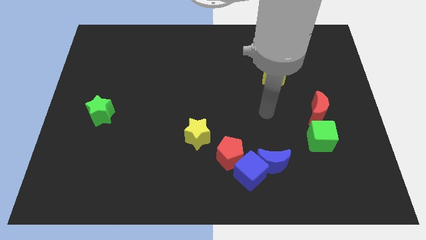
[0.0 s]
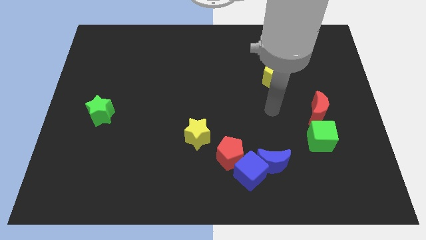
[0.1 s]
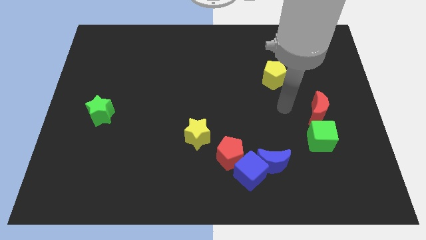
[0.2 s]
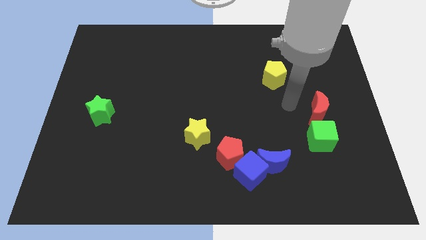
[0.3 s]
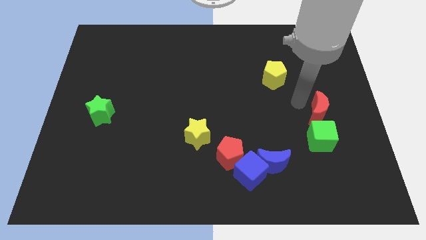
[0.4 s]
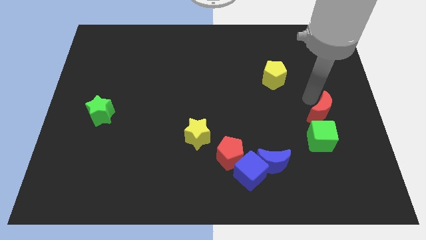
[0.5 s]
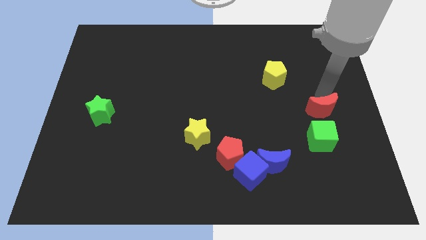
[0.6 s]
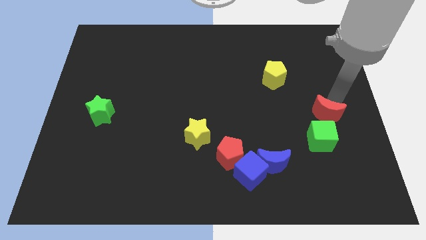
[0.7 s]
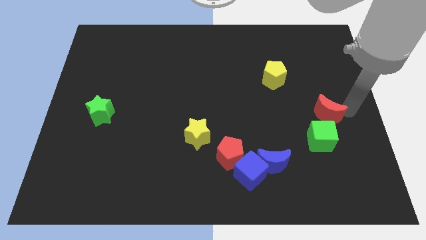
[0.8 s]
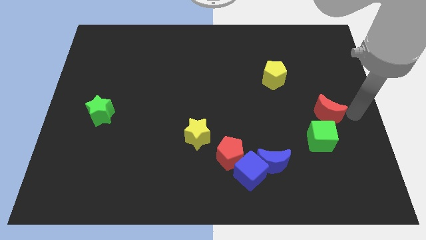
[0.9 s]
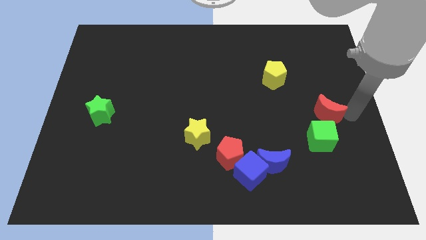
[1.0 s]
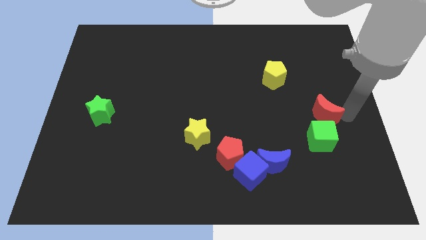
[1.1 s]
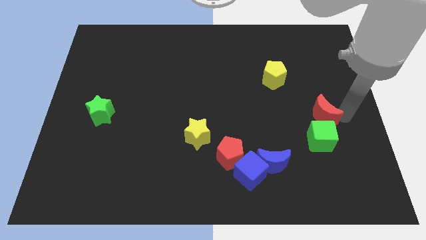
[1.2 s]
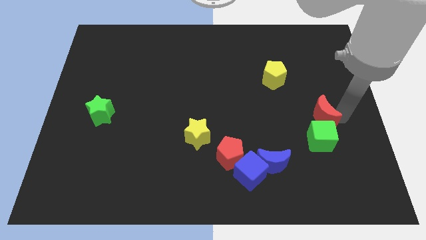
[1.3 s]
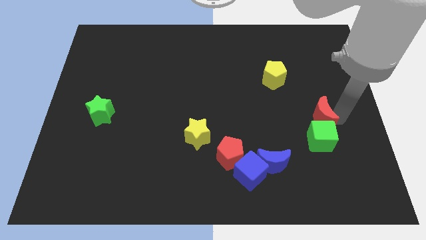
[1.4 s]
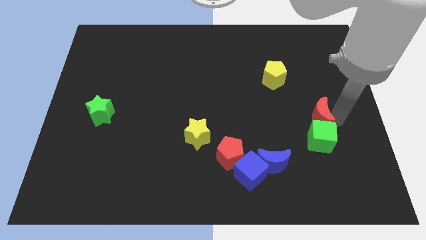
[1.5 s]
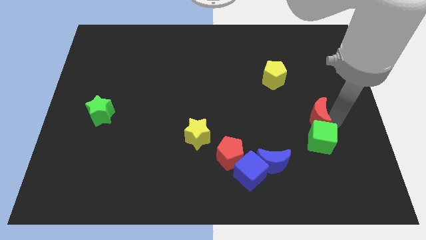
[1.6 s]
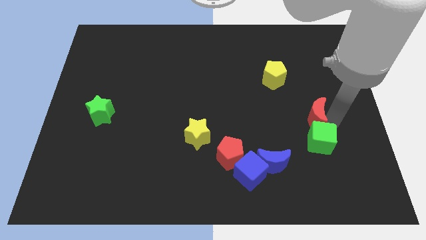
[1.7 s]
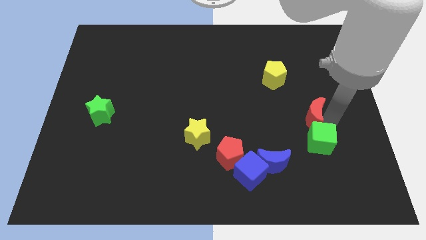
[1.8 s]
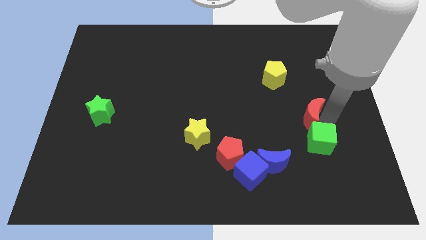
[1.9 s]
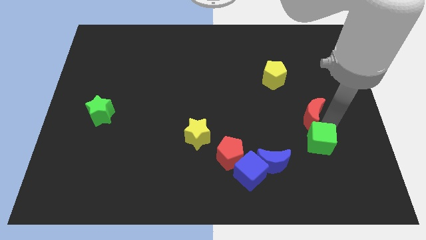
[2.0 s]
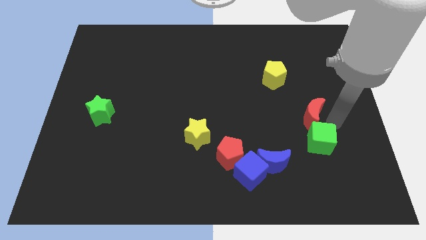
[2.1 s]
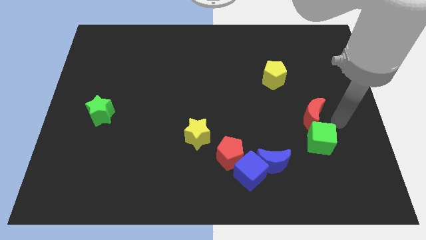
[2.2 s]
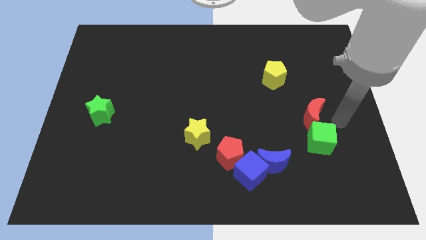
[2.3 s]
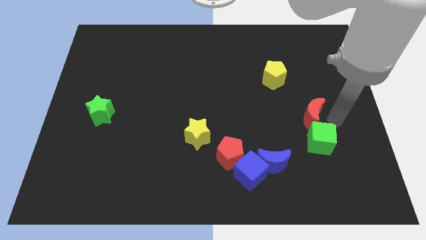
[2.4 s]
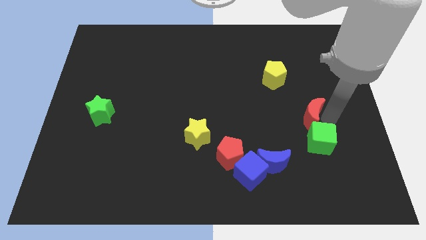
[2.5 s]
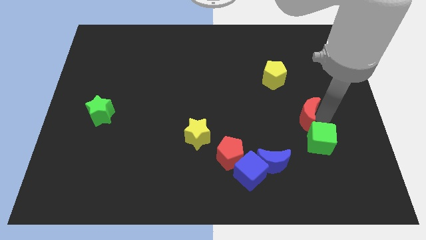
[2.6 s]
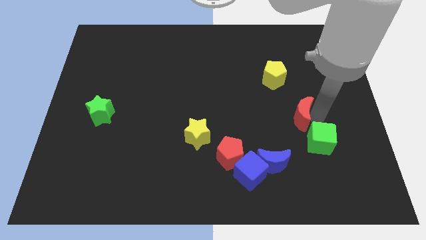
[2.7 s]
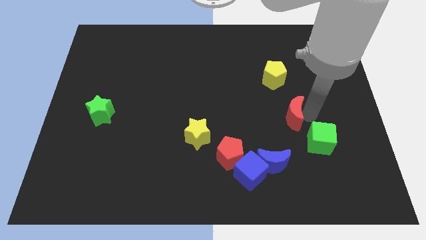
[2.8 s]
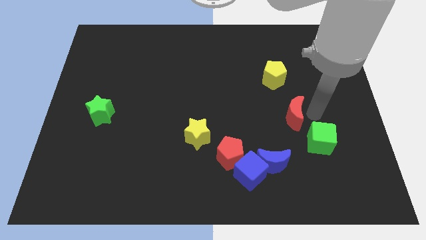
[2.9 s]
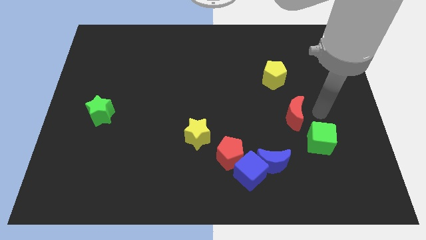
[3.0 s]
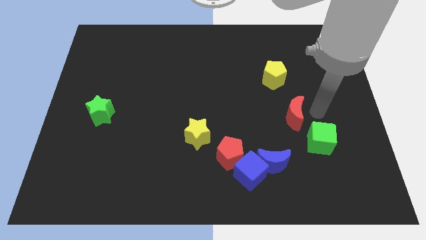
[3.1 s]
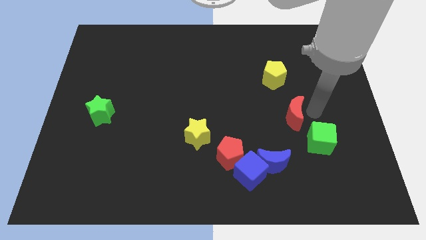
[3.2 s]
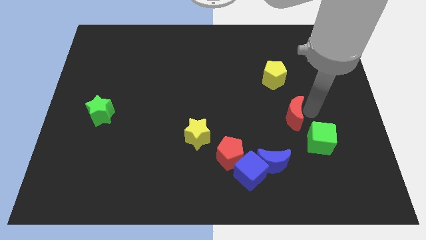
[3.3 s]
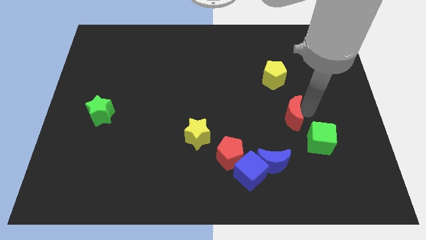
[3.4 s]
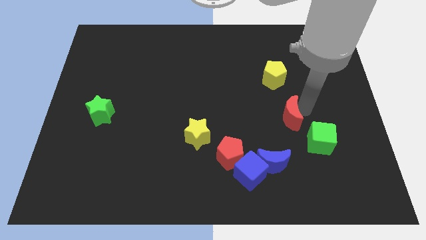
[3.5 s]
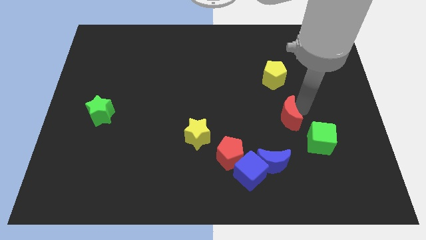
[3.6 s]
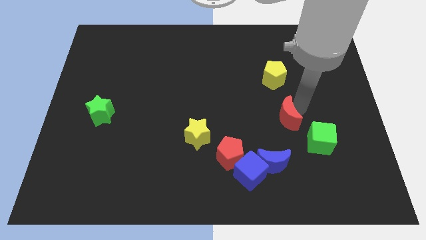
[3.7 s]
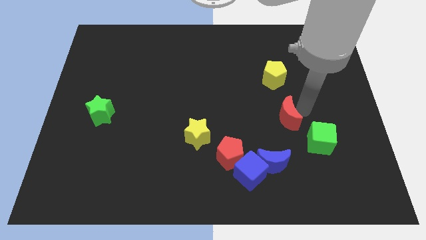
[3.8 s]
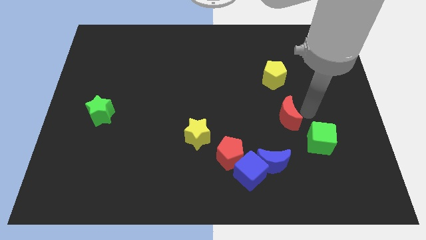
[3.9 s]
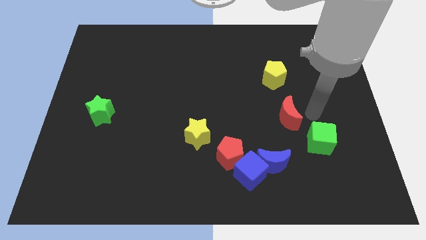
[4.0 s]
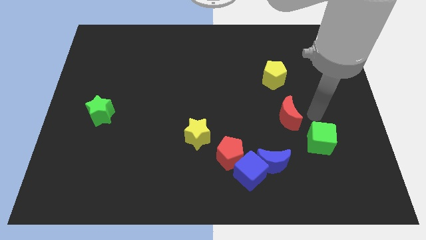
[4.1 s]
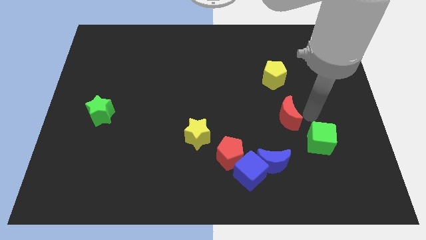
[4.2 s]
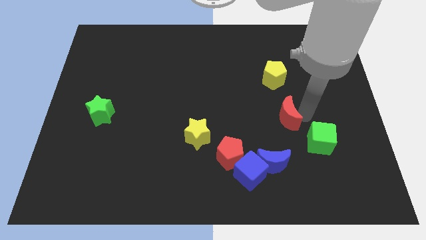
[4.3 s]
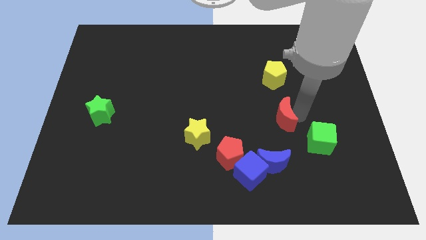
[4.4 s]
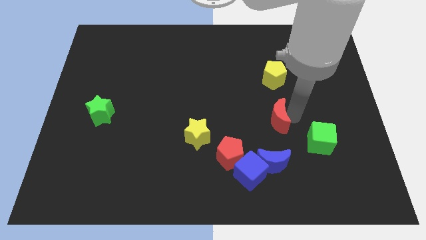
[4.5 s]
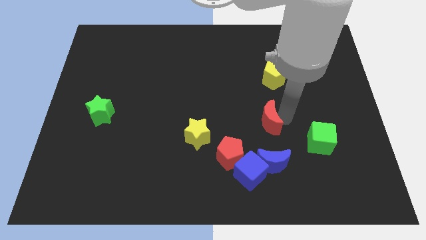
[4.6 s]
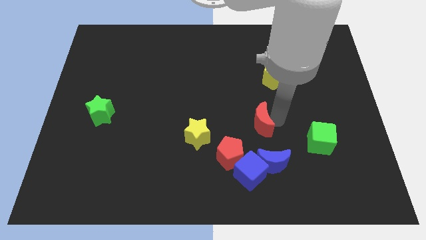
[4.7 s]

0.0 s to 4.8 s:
move the red moon to the center of the board

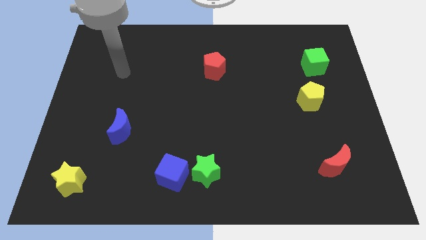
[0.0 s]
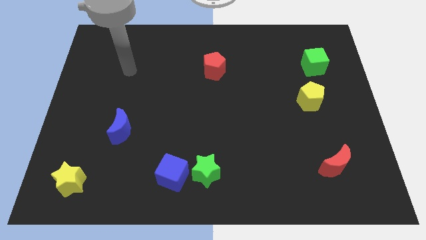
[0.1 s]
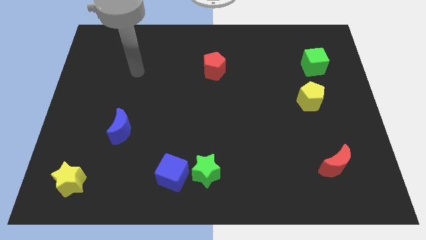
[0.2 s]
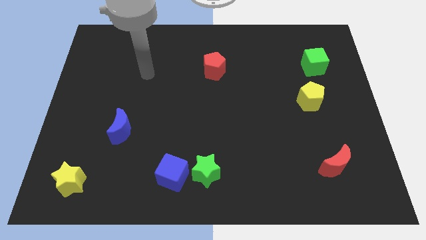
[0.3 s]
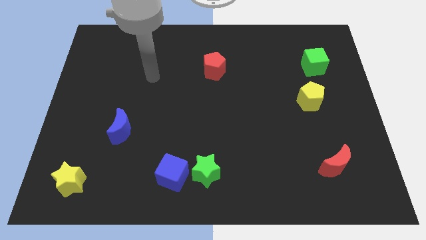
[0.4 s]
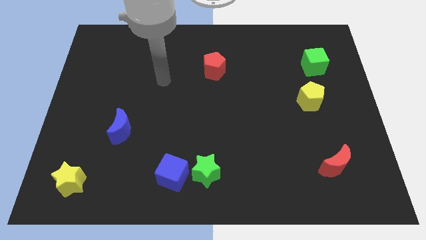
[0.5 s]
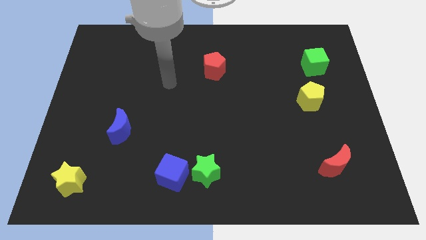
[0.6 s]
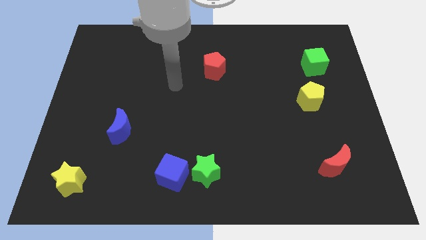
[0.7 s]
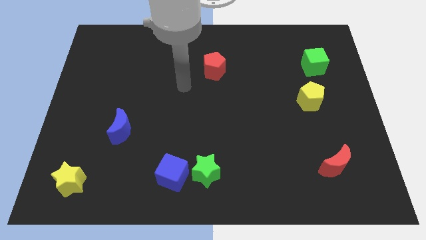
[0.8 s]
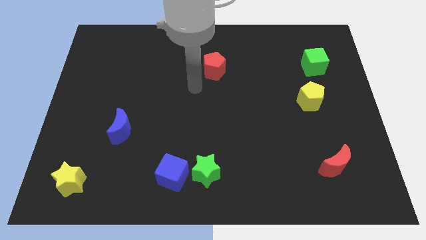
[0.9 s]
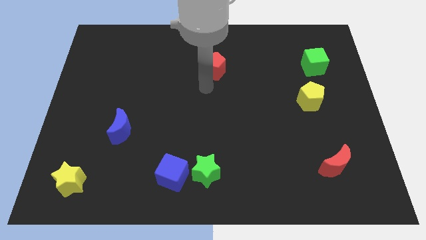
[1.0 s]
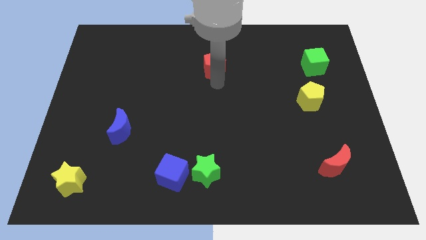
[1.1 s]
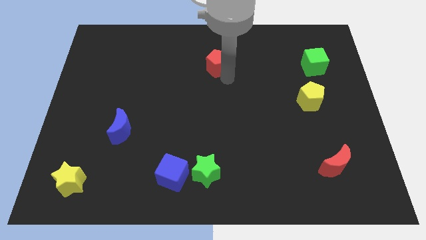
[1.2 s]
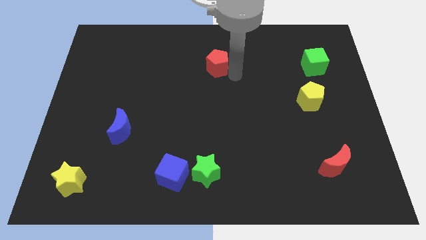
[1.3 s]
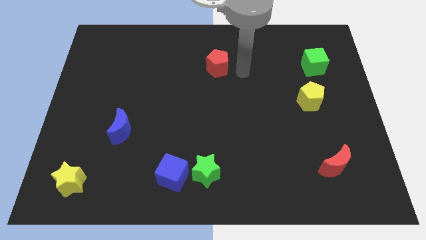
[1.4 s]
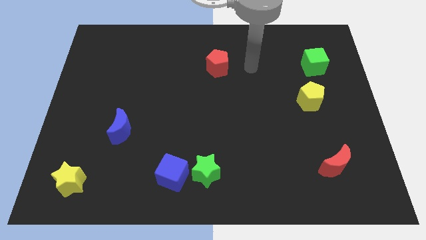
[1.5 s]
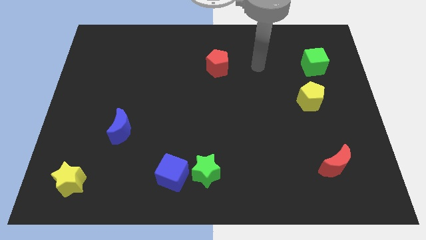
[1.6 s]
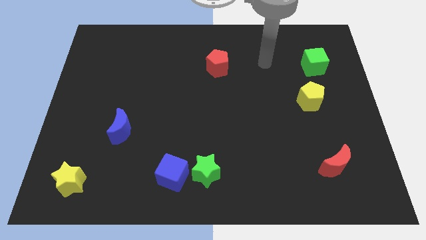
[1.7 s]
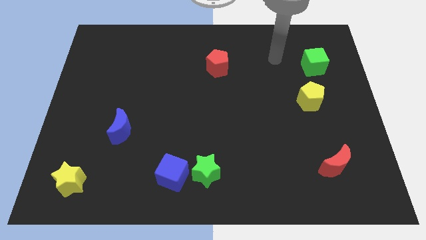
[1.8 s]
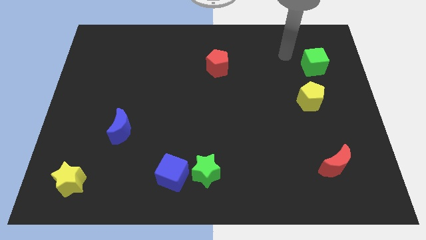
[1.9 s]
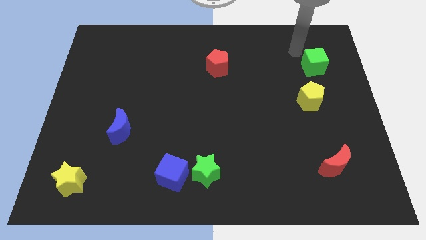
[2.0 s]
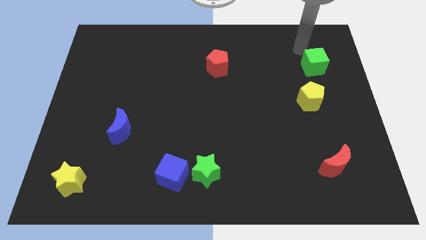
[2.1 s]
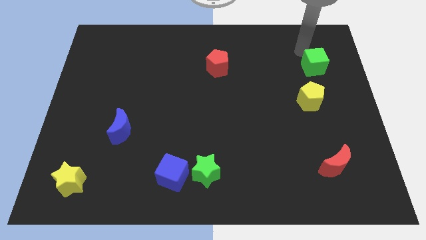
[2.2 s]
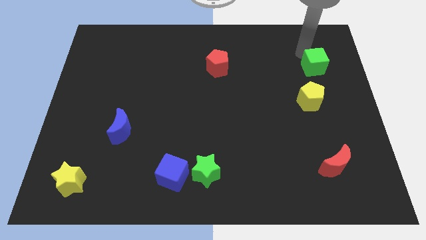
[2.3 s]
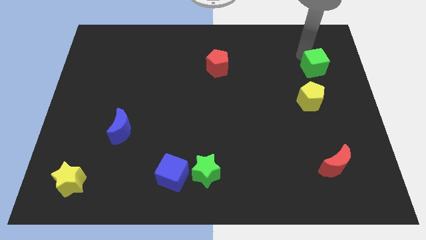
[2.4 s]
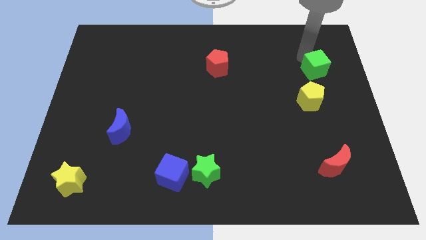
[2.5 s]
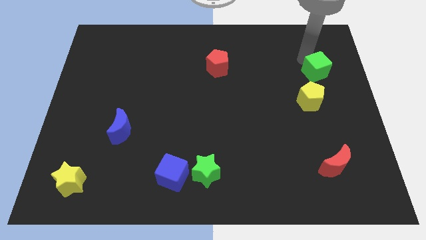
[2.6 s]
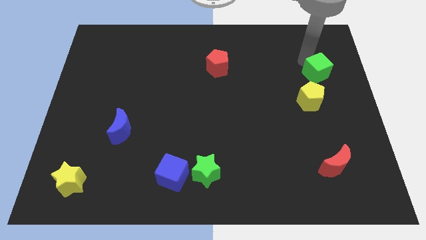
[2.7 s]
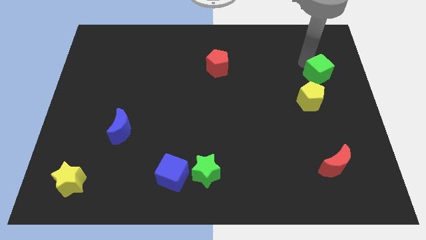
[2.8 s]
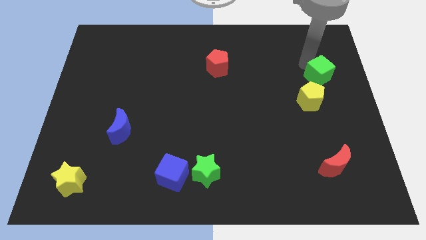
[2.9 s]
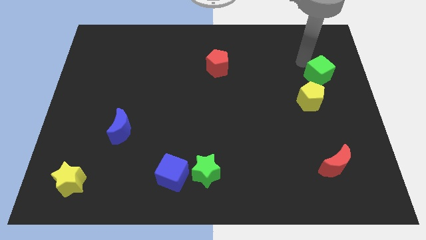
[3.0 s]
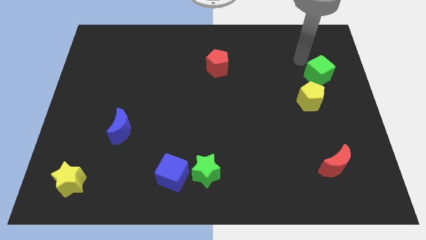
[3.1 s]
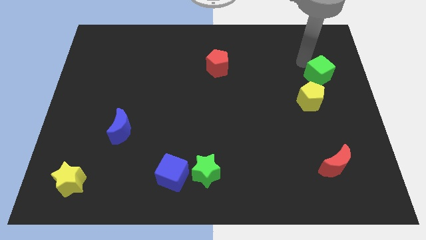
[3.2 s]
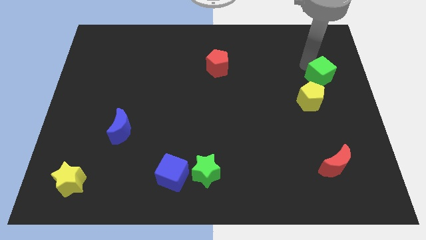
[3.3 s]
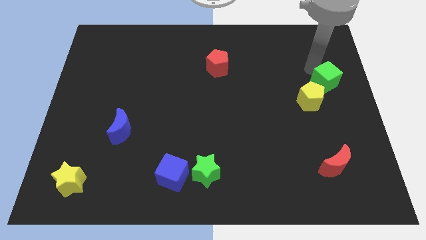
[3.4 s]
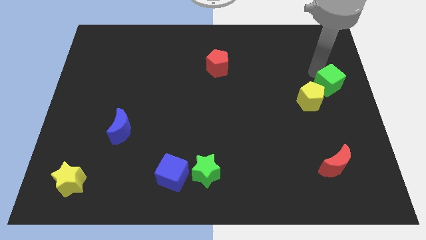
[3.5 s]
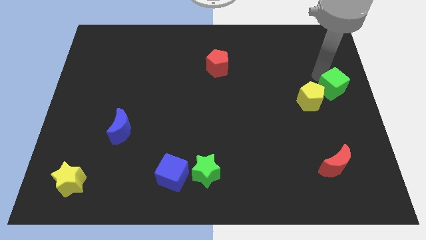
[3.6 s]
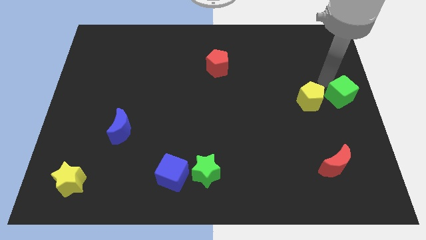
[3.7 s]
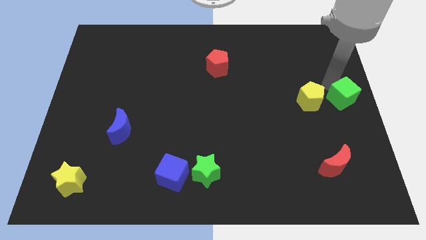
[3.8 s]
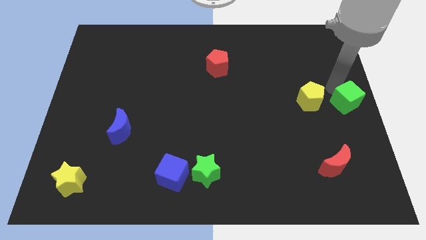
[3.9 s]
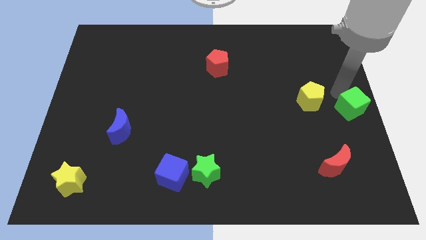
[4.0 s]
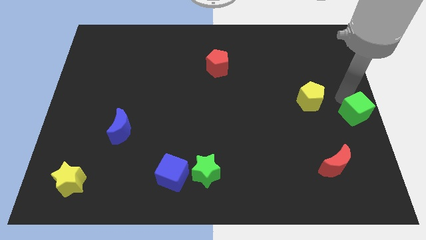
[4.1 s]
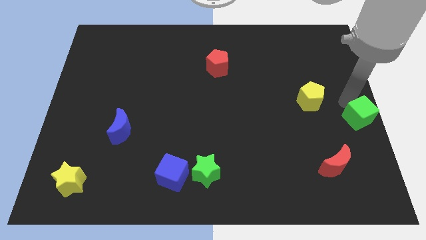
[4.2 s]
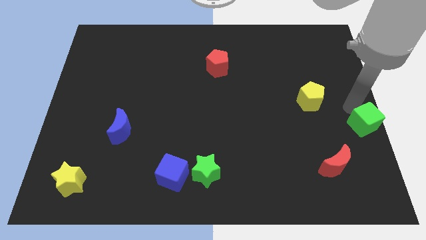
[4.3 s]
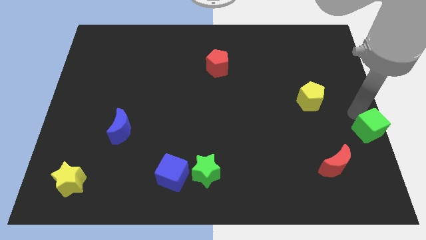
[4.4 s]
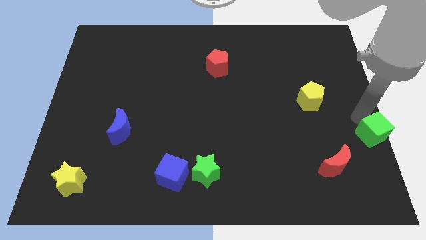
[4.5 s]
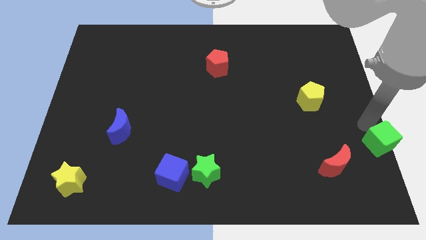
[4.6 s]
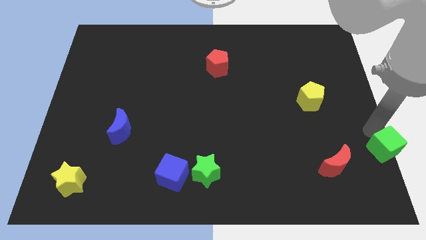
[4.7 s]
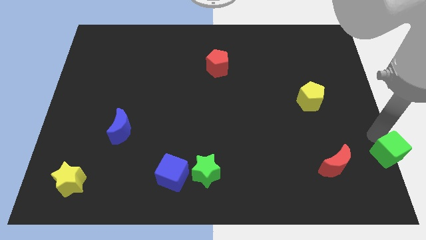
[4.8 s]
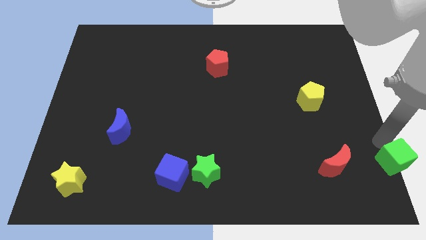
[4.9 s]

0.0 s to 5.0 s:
put the green cube to the bottom right corner
